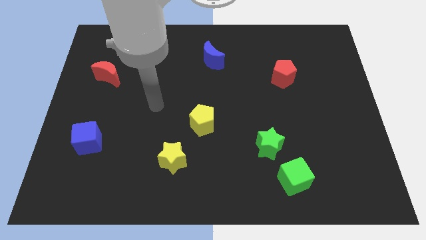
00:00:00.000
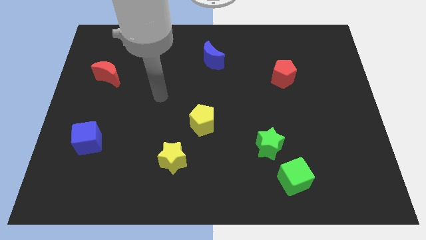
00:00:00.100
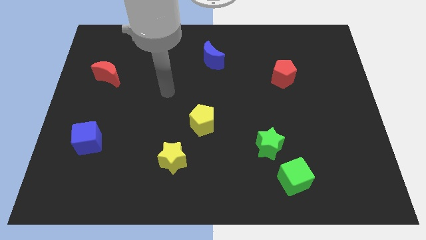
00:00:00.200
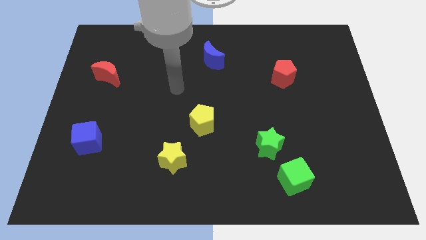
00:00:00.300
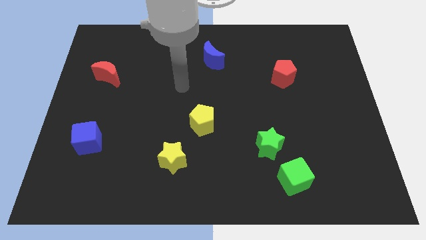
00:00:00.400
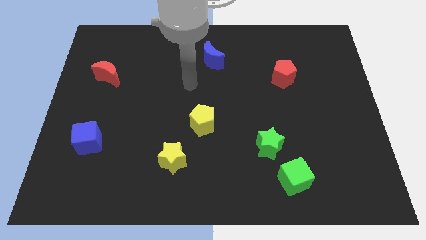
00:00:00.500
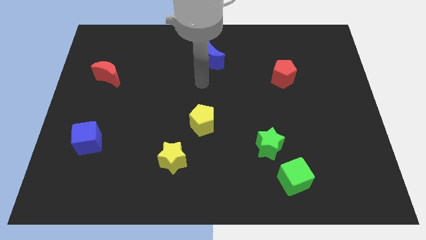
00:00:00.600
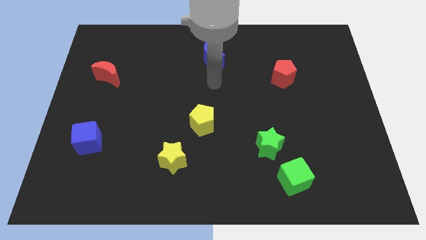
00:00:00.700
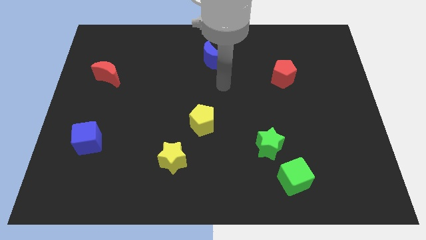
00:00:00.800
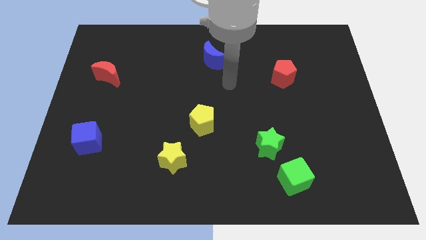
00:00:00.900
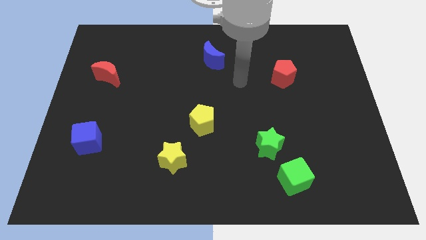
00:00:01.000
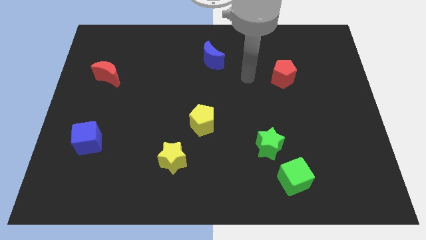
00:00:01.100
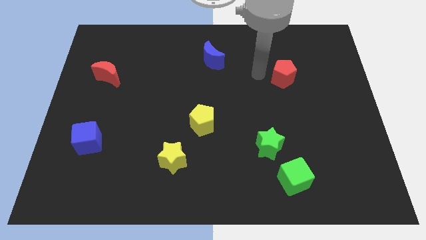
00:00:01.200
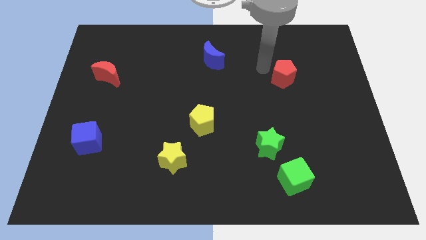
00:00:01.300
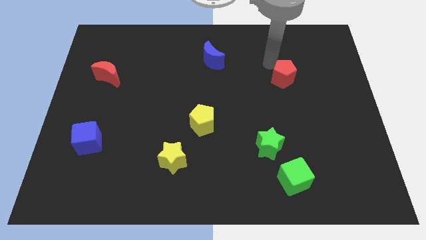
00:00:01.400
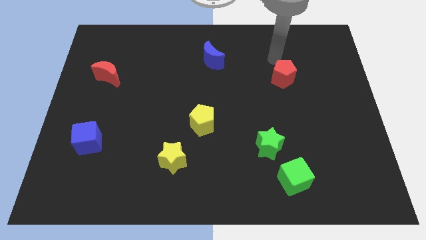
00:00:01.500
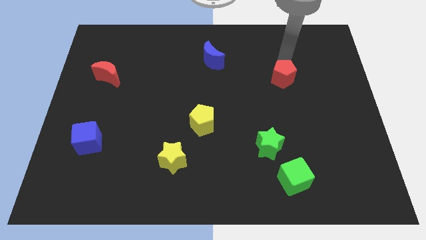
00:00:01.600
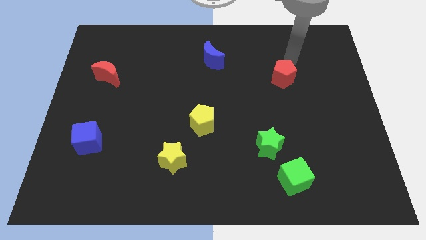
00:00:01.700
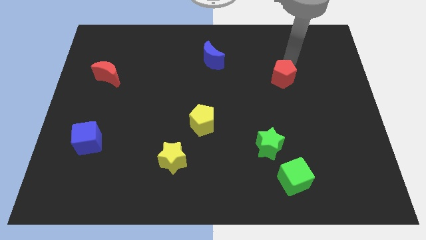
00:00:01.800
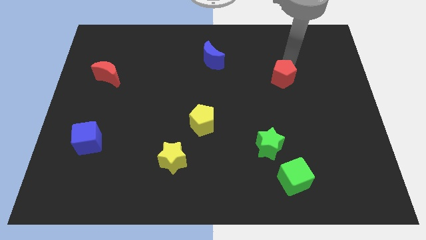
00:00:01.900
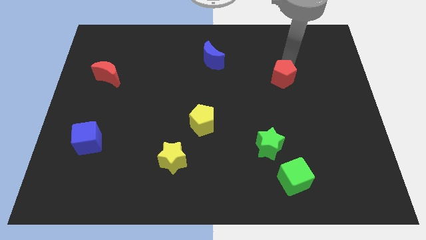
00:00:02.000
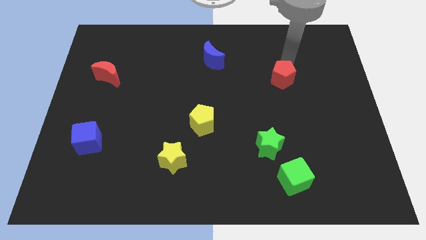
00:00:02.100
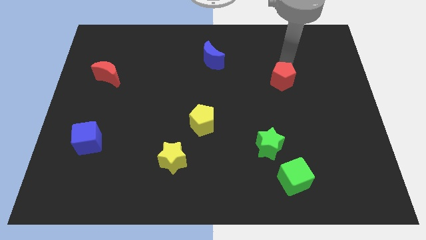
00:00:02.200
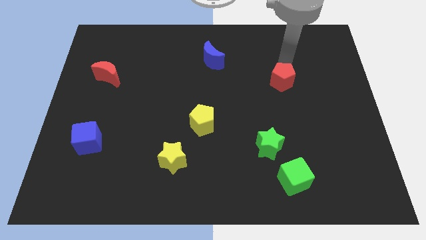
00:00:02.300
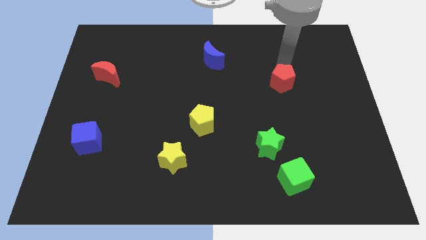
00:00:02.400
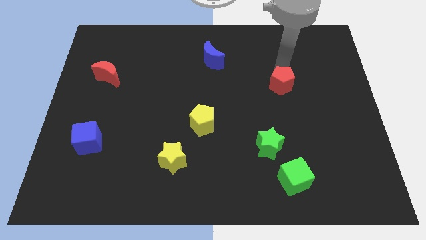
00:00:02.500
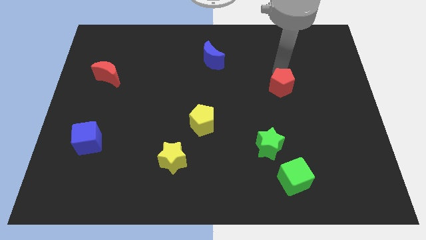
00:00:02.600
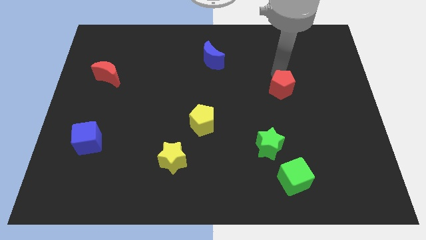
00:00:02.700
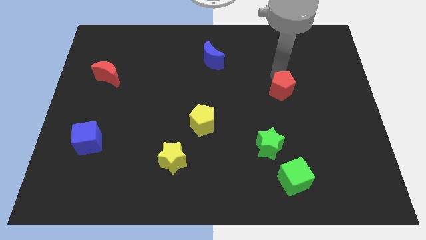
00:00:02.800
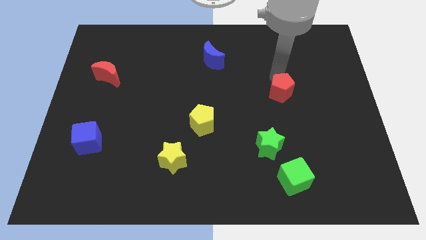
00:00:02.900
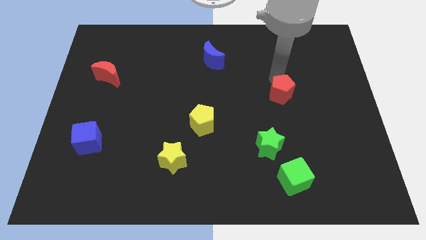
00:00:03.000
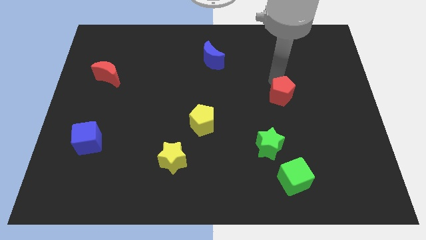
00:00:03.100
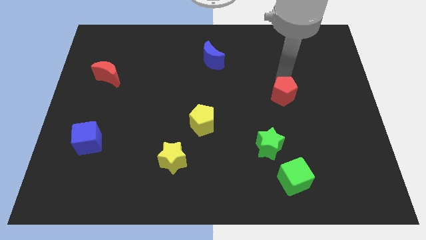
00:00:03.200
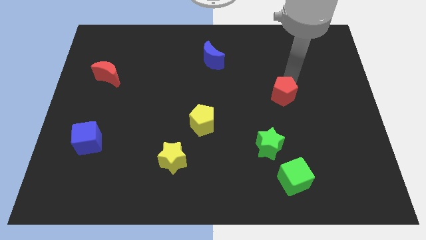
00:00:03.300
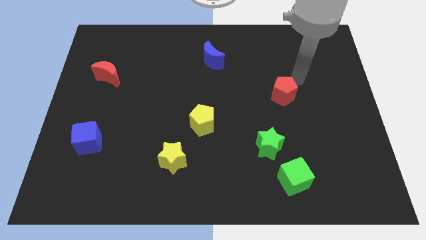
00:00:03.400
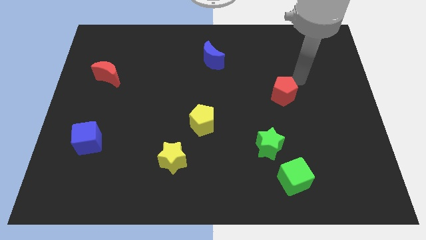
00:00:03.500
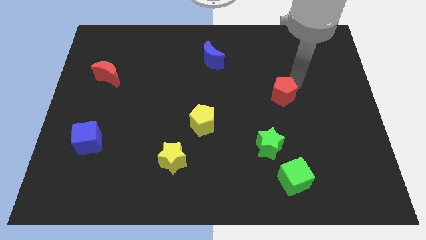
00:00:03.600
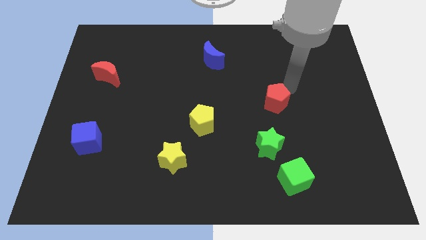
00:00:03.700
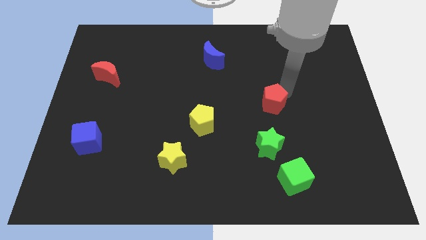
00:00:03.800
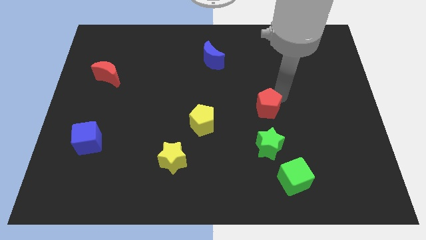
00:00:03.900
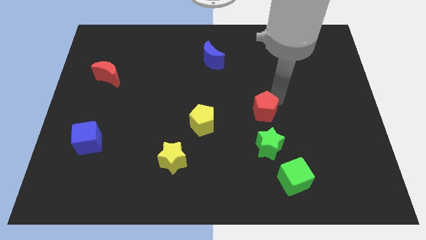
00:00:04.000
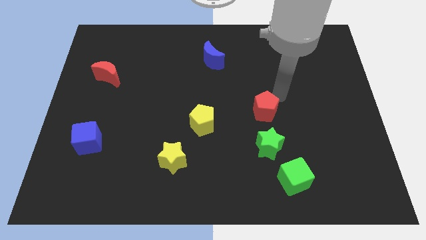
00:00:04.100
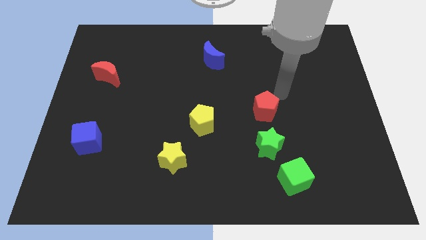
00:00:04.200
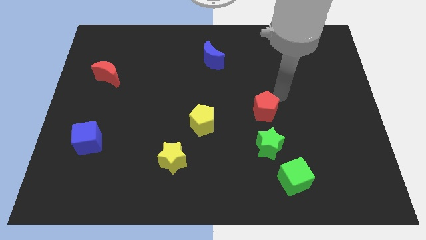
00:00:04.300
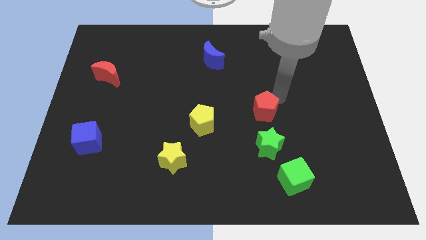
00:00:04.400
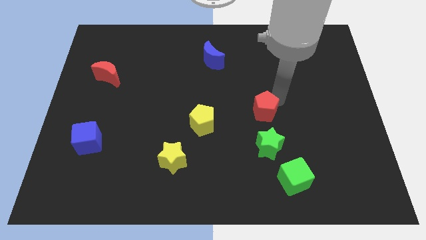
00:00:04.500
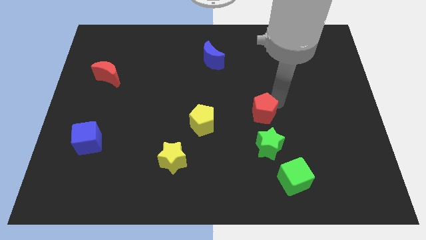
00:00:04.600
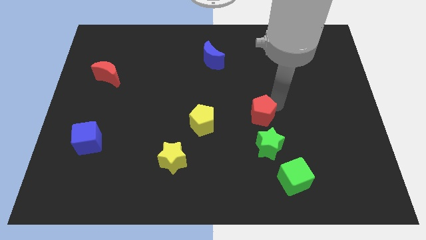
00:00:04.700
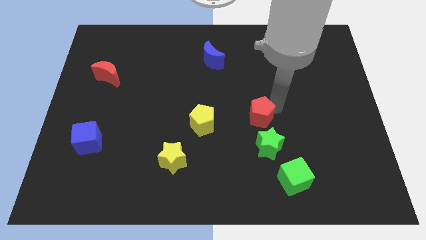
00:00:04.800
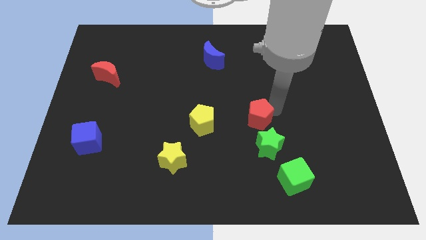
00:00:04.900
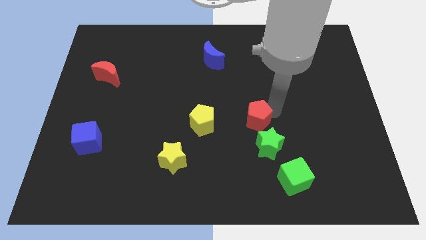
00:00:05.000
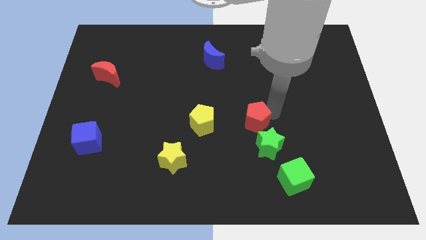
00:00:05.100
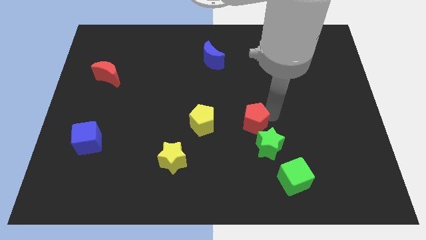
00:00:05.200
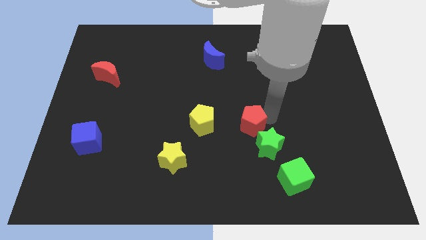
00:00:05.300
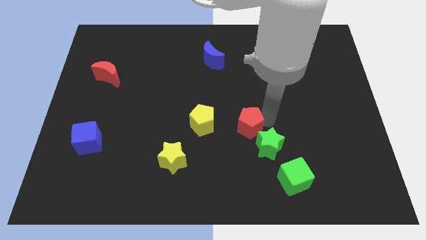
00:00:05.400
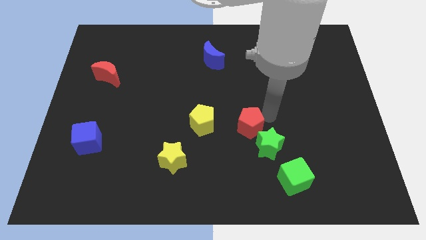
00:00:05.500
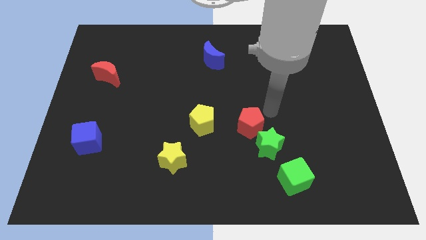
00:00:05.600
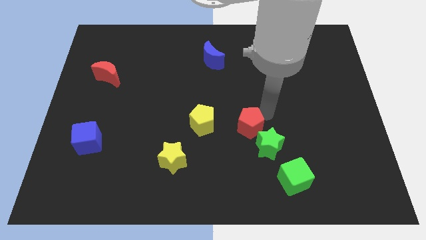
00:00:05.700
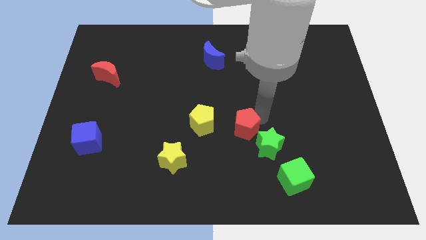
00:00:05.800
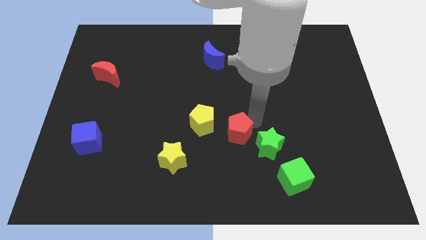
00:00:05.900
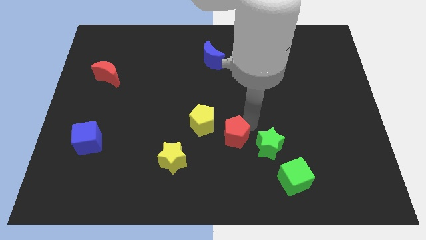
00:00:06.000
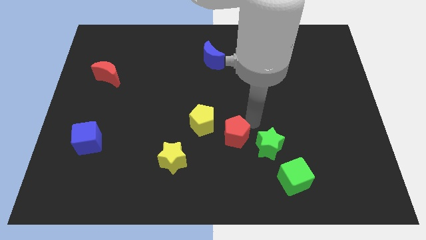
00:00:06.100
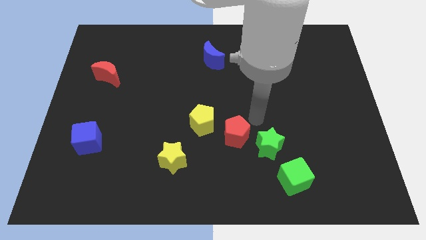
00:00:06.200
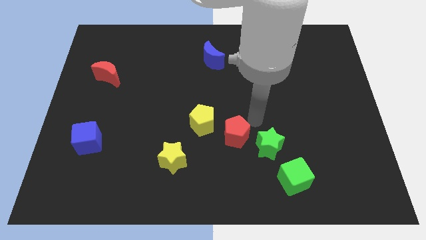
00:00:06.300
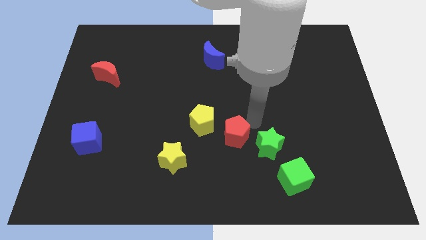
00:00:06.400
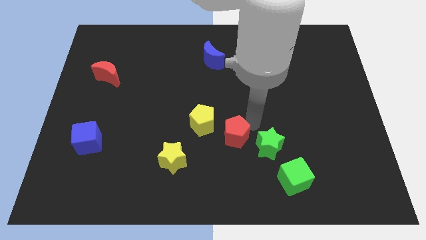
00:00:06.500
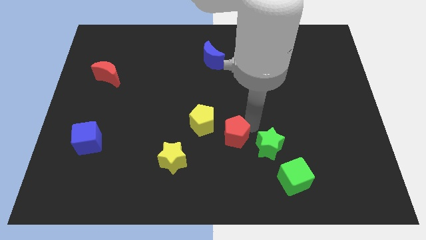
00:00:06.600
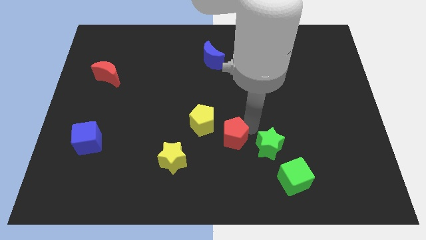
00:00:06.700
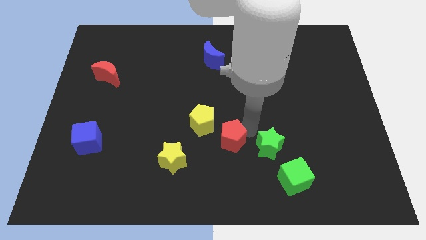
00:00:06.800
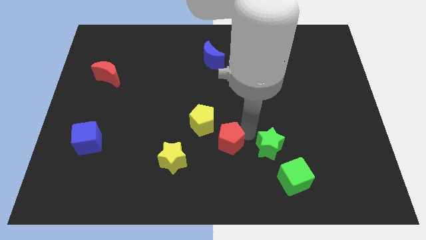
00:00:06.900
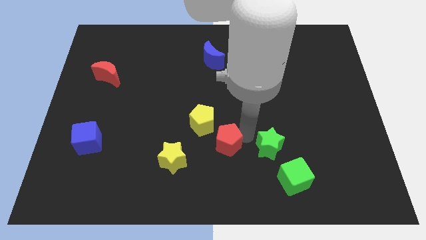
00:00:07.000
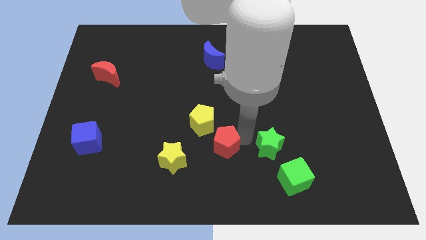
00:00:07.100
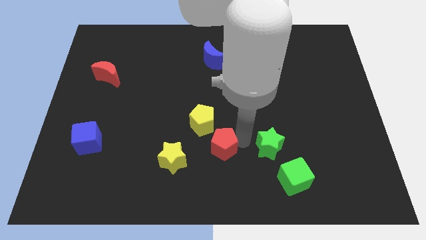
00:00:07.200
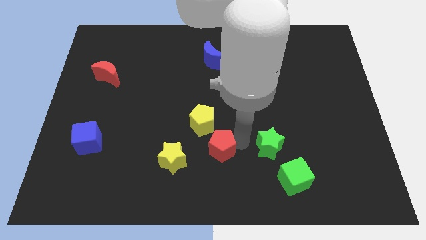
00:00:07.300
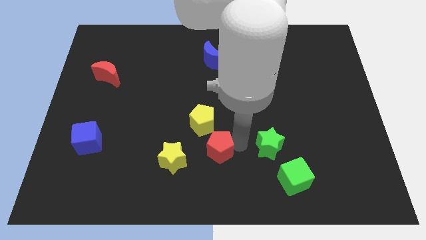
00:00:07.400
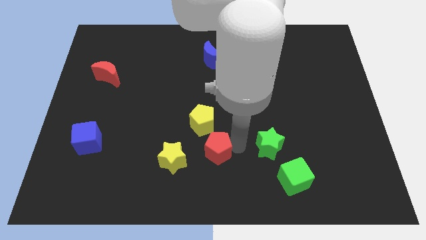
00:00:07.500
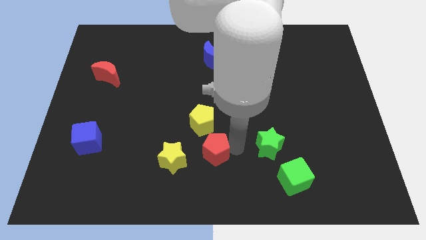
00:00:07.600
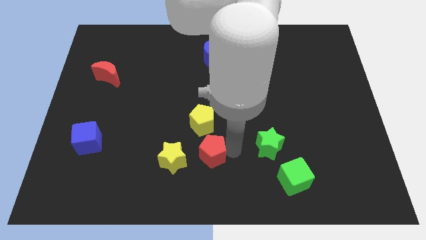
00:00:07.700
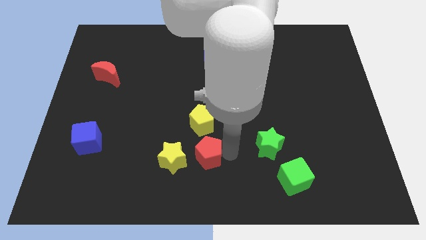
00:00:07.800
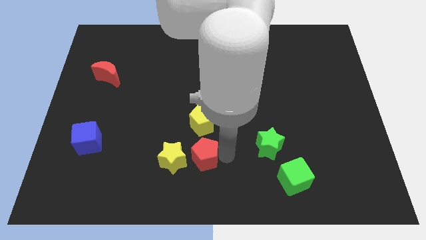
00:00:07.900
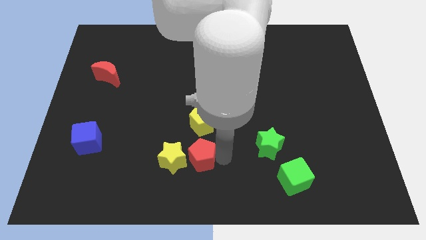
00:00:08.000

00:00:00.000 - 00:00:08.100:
push the red pentagon close to the yellow star
